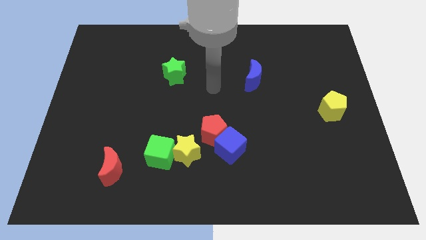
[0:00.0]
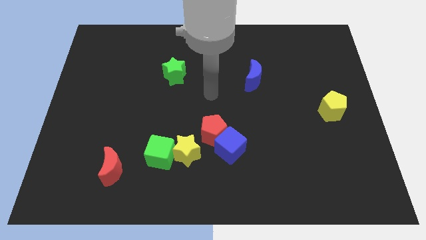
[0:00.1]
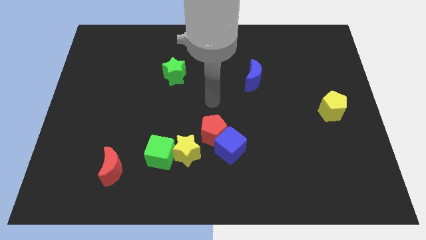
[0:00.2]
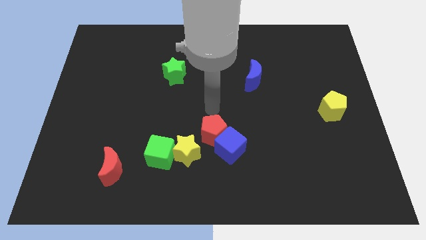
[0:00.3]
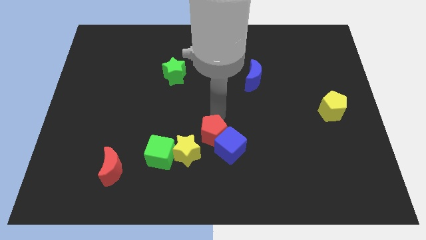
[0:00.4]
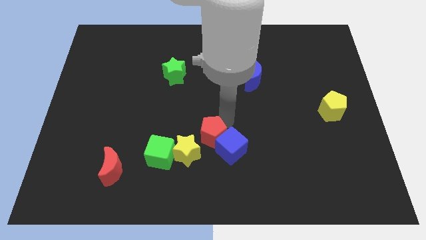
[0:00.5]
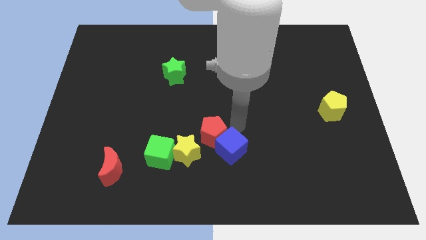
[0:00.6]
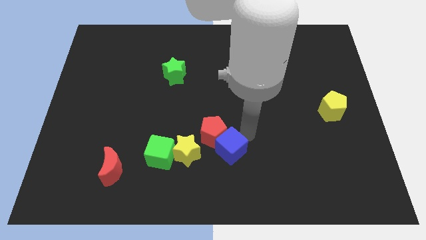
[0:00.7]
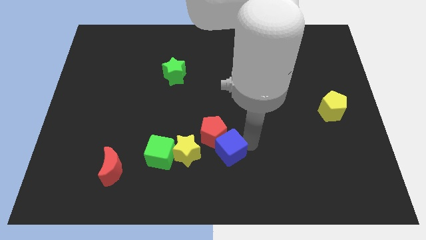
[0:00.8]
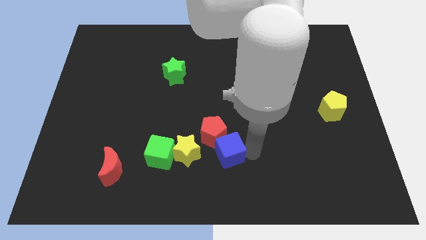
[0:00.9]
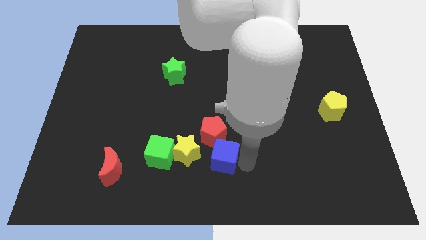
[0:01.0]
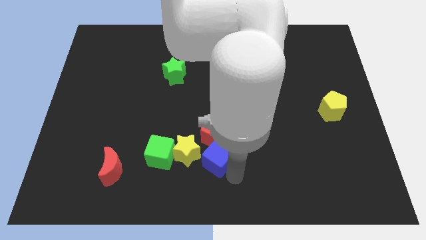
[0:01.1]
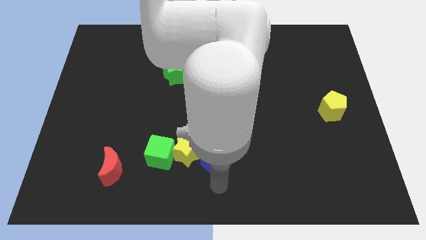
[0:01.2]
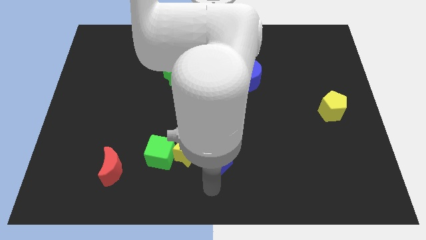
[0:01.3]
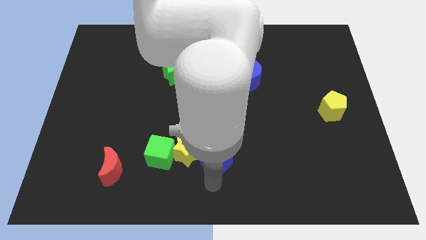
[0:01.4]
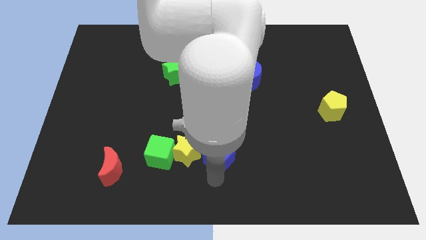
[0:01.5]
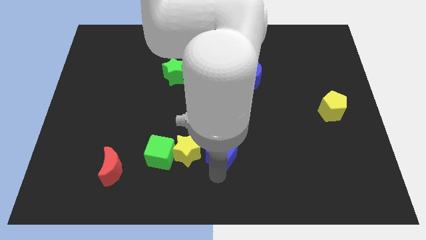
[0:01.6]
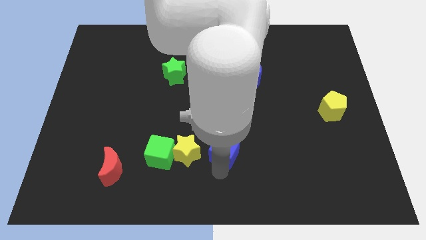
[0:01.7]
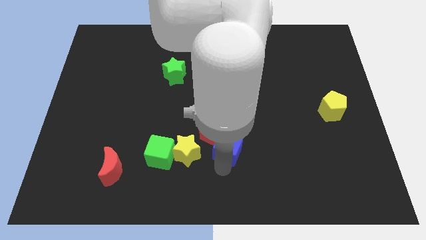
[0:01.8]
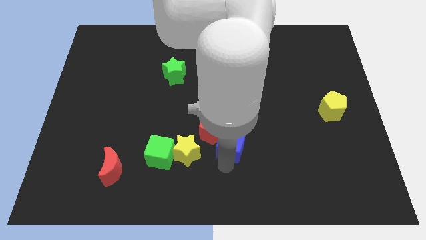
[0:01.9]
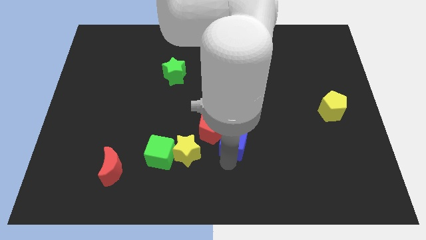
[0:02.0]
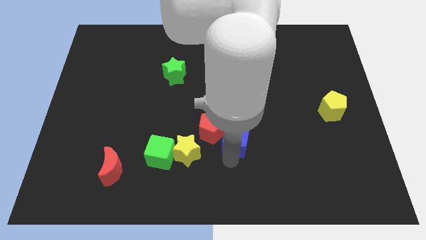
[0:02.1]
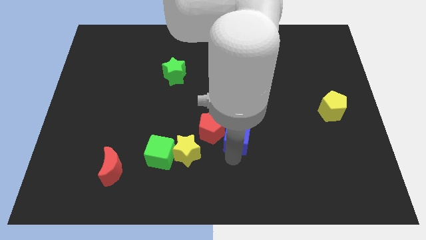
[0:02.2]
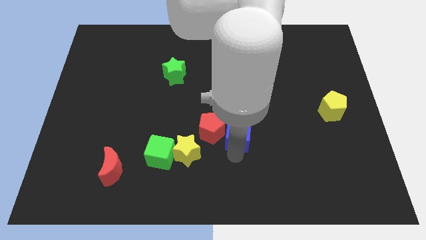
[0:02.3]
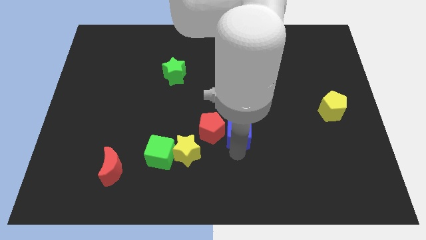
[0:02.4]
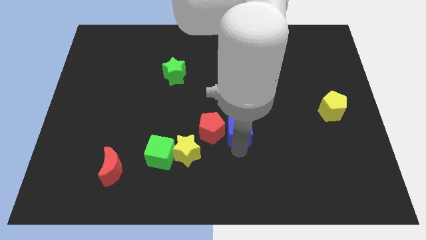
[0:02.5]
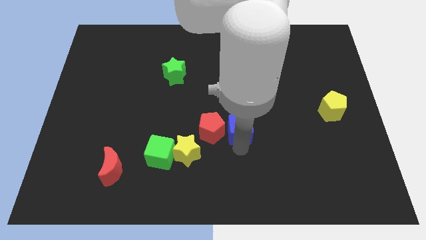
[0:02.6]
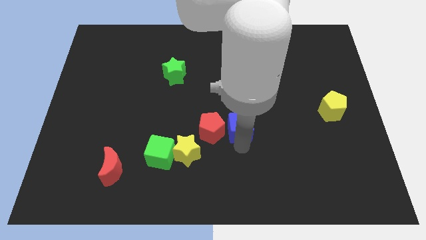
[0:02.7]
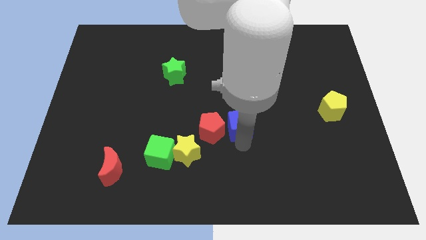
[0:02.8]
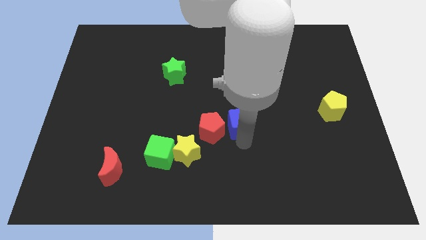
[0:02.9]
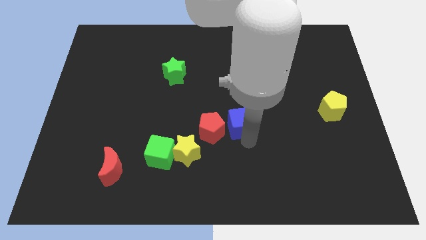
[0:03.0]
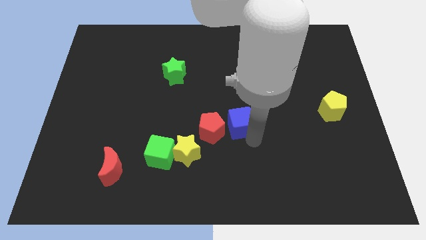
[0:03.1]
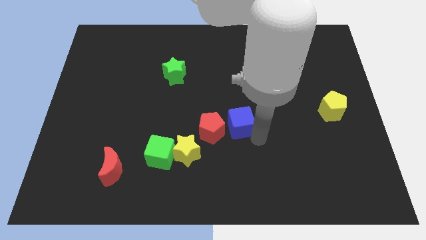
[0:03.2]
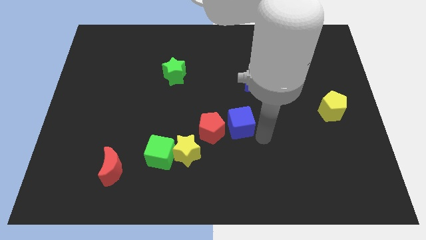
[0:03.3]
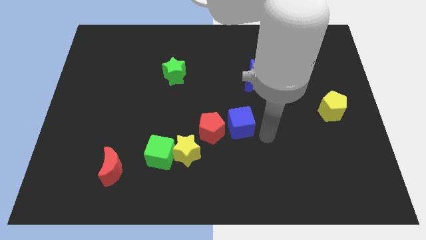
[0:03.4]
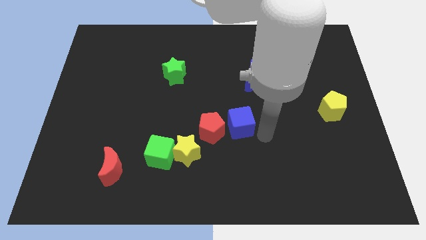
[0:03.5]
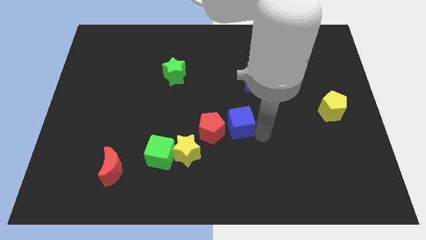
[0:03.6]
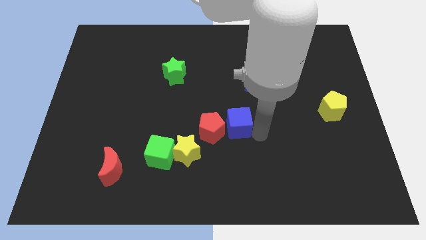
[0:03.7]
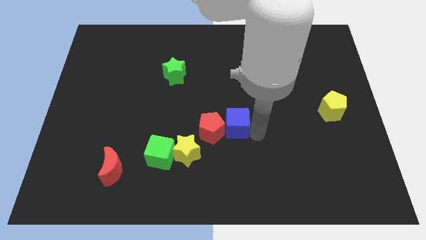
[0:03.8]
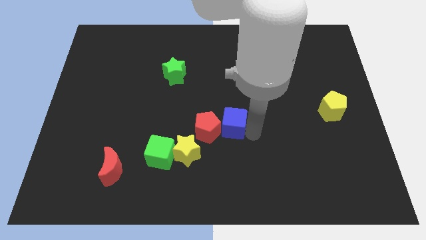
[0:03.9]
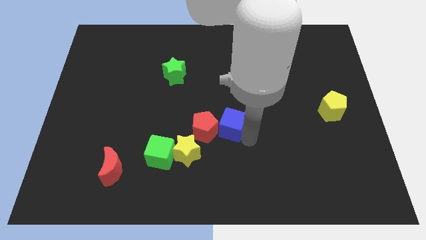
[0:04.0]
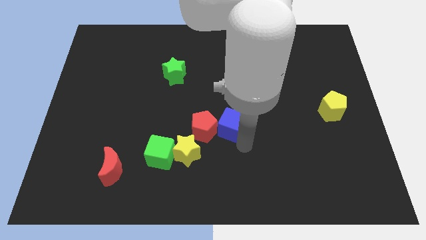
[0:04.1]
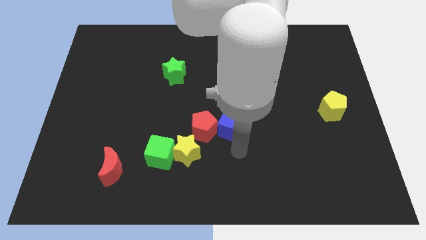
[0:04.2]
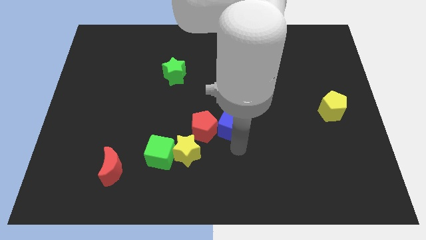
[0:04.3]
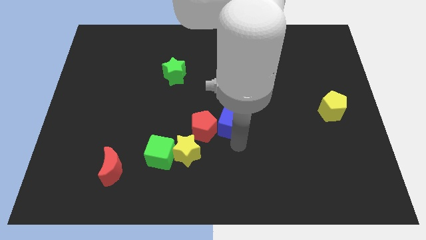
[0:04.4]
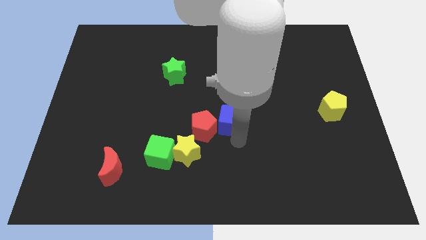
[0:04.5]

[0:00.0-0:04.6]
slightly move the blue cube upwards

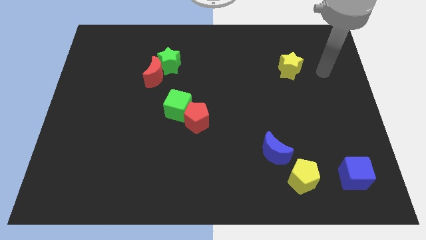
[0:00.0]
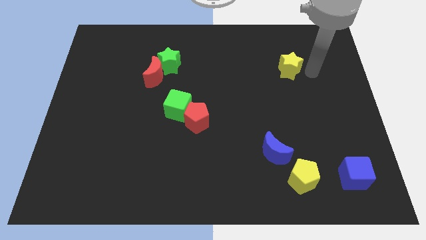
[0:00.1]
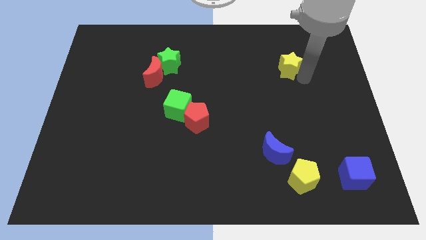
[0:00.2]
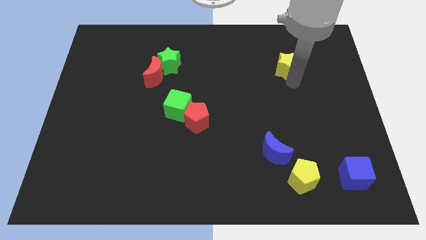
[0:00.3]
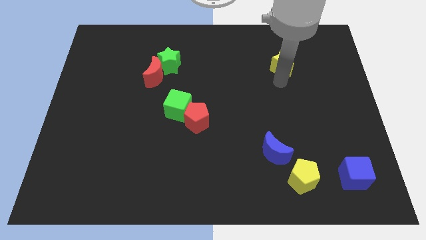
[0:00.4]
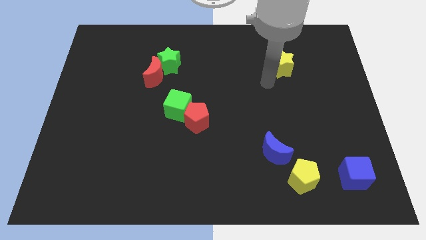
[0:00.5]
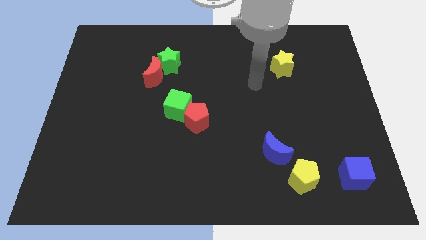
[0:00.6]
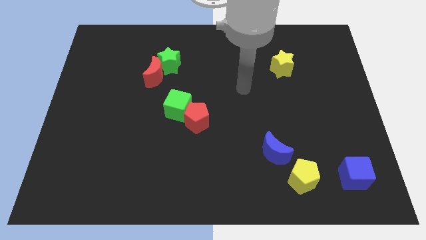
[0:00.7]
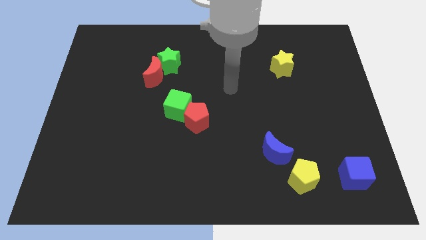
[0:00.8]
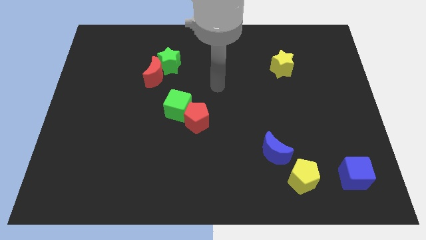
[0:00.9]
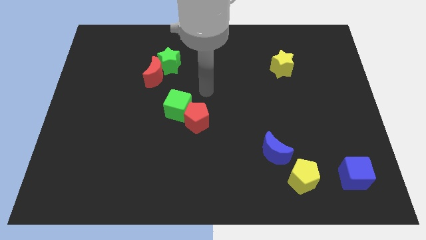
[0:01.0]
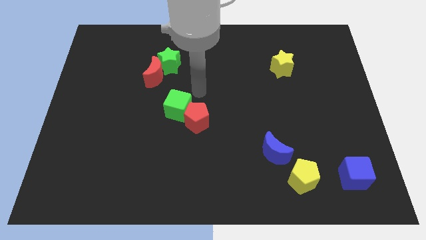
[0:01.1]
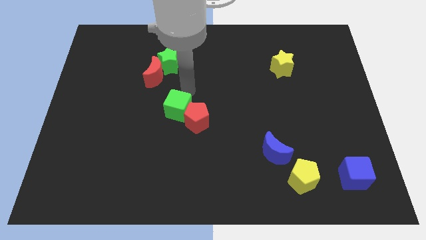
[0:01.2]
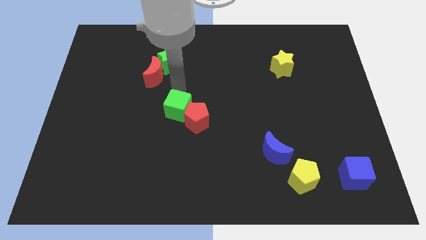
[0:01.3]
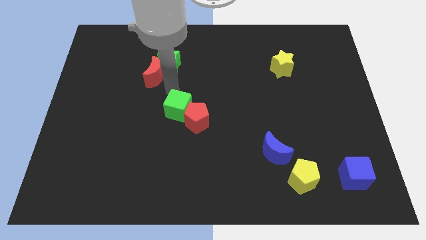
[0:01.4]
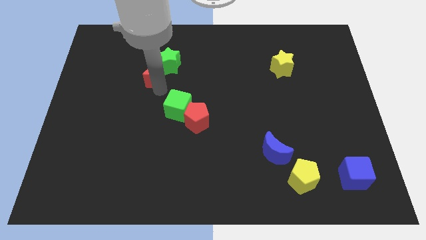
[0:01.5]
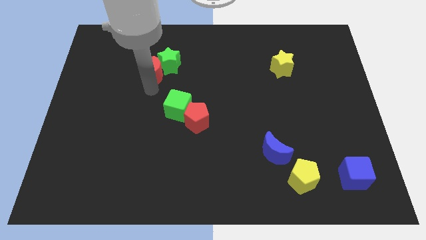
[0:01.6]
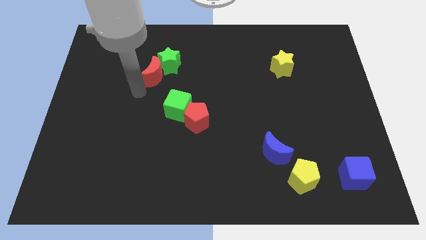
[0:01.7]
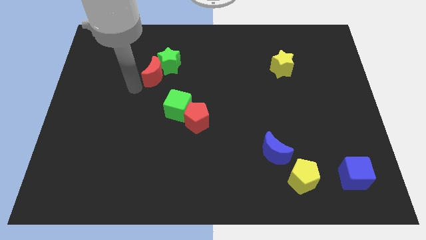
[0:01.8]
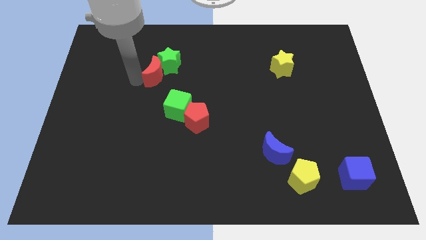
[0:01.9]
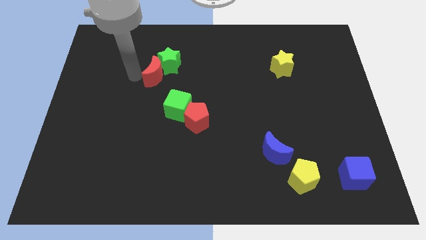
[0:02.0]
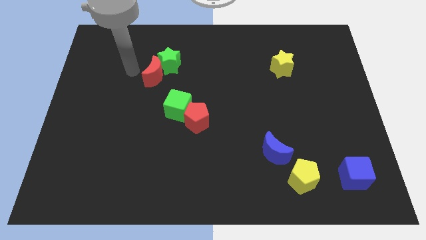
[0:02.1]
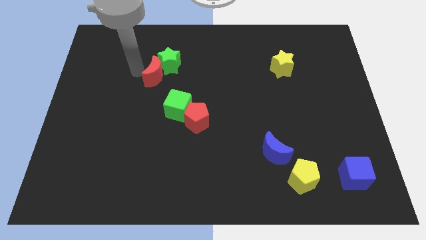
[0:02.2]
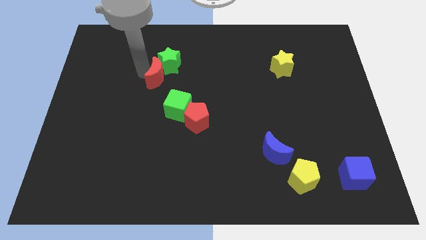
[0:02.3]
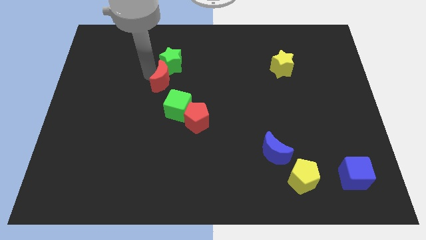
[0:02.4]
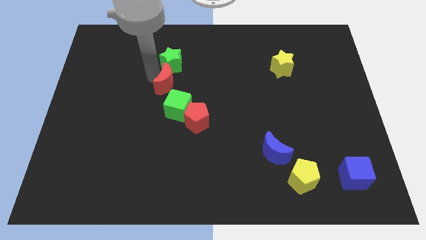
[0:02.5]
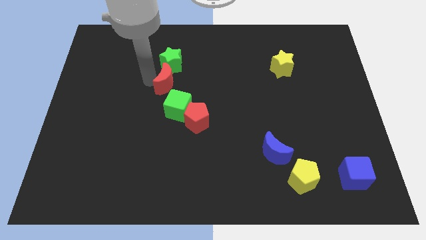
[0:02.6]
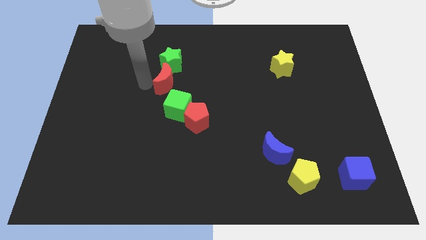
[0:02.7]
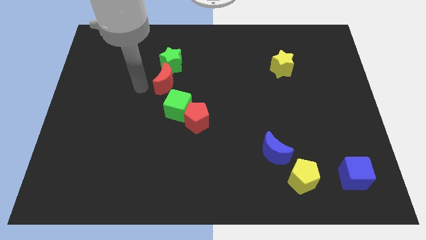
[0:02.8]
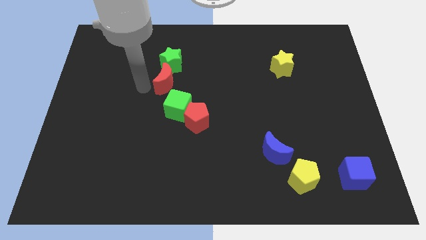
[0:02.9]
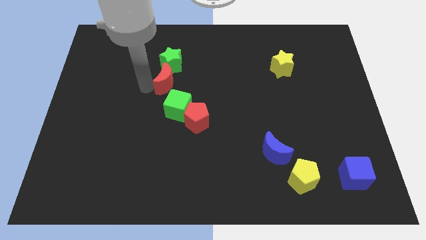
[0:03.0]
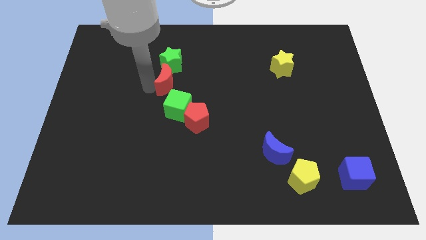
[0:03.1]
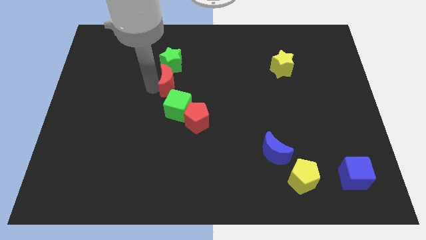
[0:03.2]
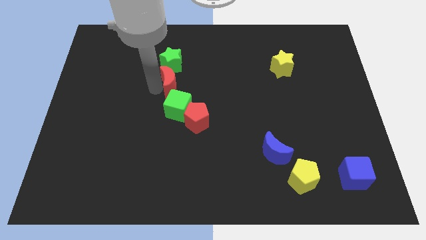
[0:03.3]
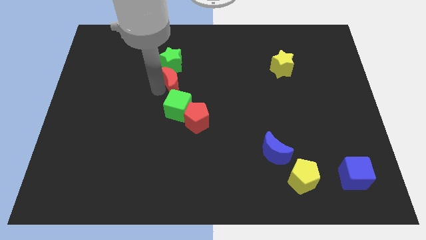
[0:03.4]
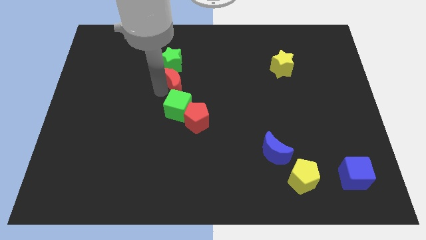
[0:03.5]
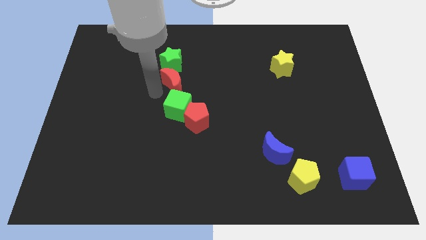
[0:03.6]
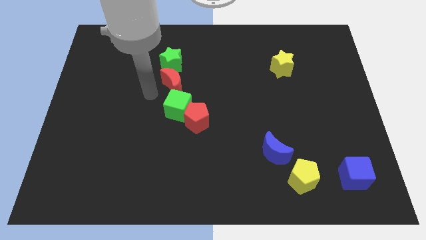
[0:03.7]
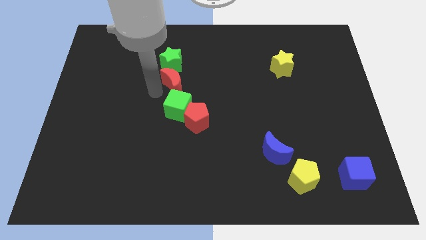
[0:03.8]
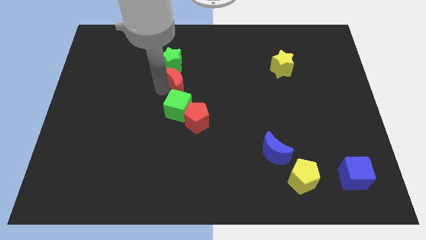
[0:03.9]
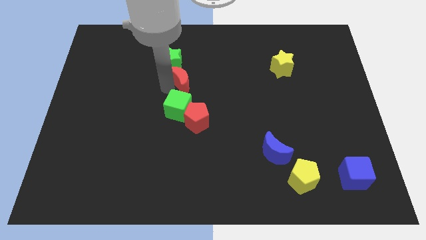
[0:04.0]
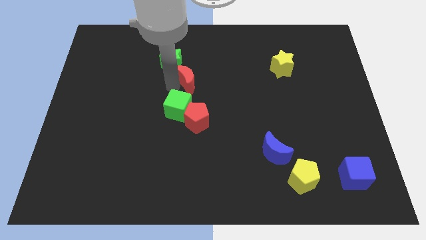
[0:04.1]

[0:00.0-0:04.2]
slide the red moon to the right a bit
